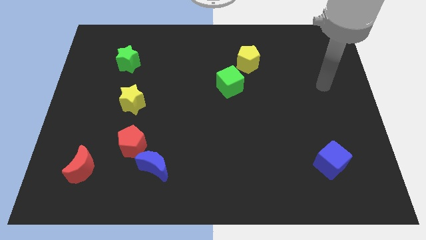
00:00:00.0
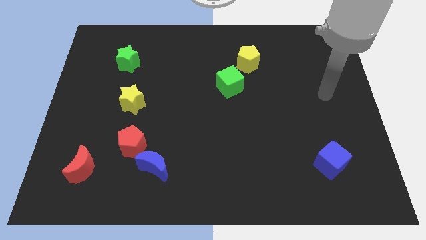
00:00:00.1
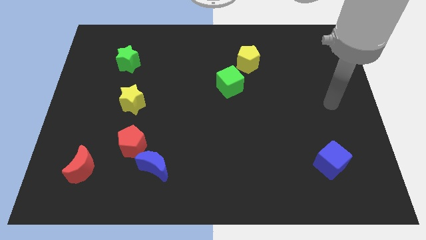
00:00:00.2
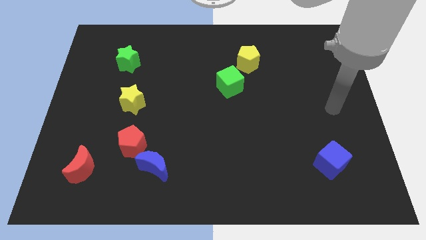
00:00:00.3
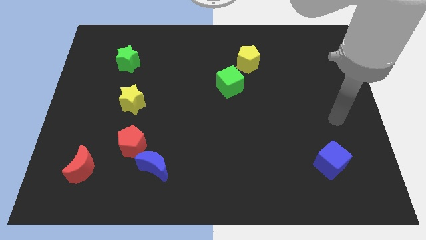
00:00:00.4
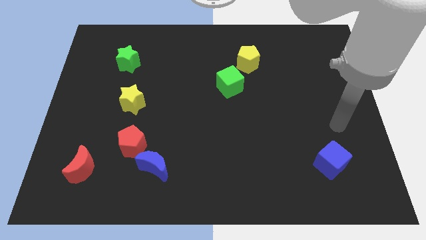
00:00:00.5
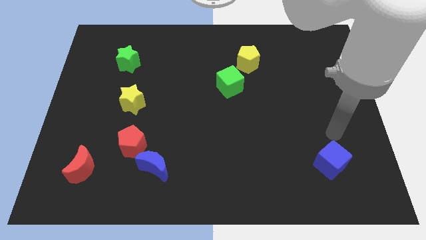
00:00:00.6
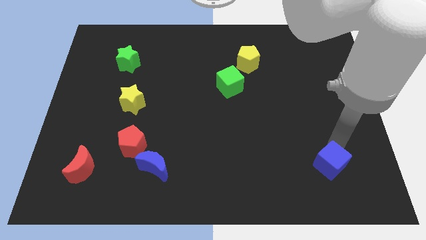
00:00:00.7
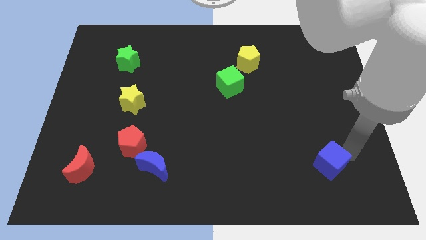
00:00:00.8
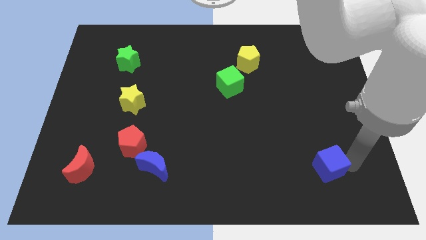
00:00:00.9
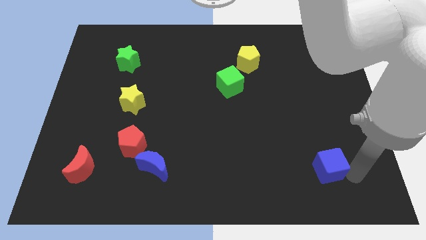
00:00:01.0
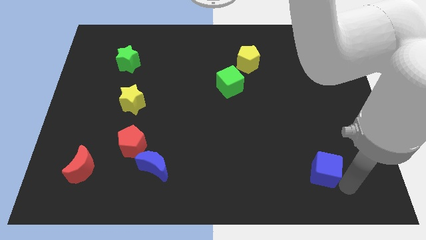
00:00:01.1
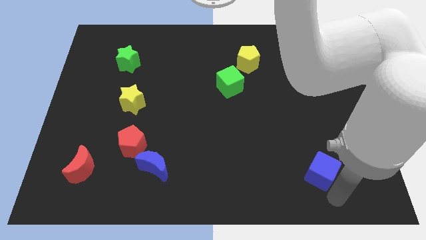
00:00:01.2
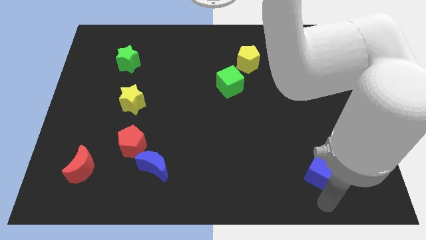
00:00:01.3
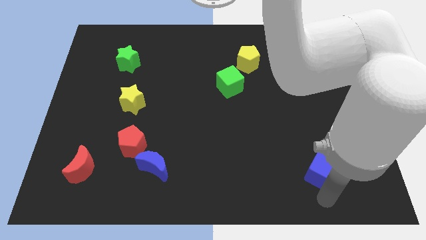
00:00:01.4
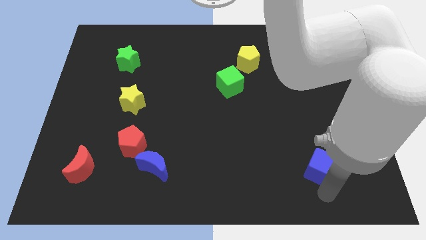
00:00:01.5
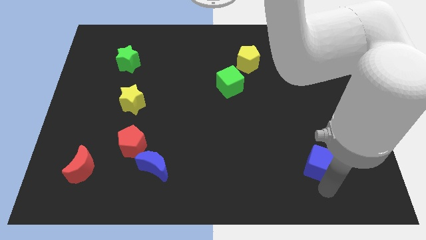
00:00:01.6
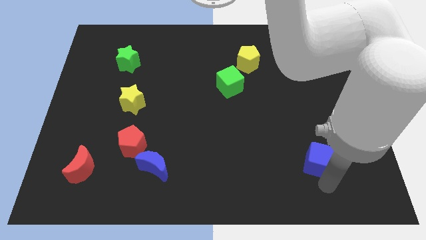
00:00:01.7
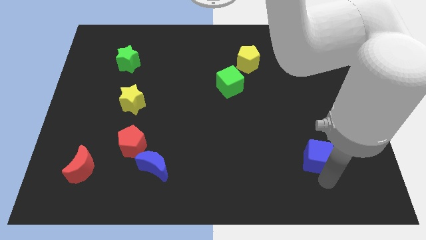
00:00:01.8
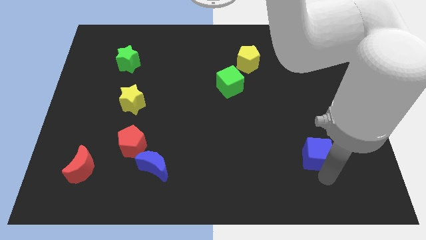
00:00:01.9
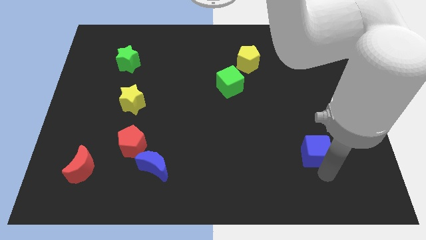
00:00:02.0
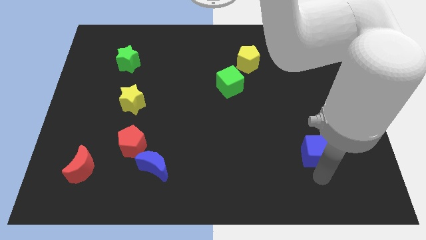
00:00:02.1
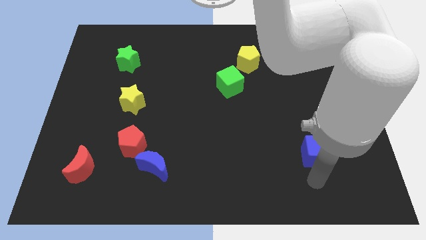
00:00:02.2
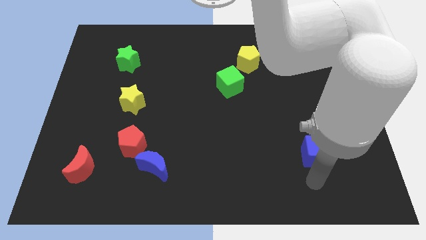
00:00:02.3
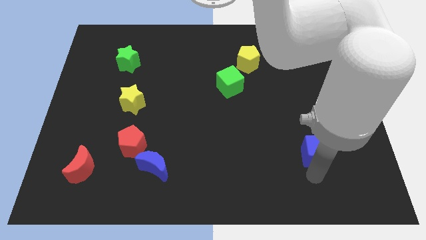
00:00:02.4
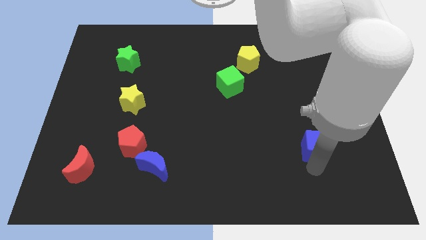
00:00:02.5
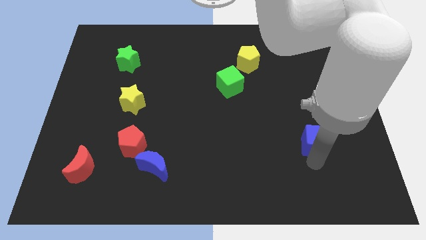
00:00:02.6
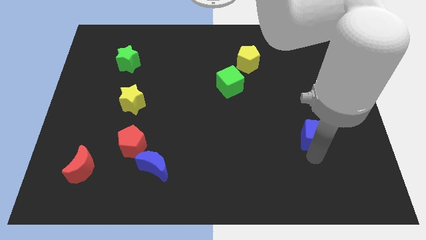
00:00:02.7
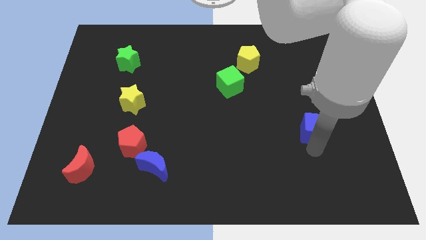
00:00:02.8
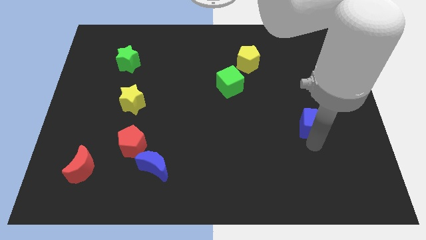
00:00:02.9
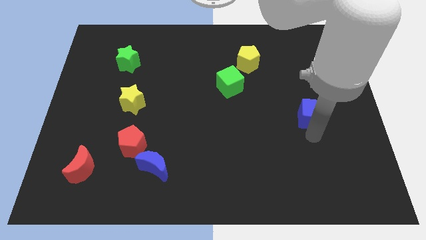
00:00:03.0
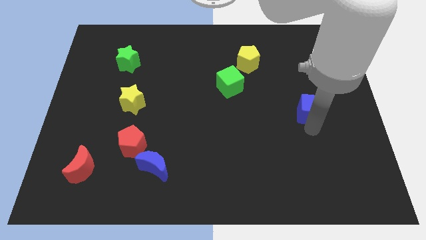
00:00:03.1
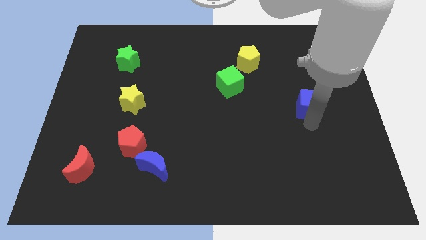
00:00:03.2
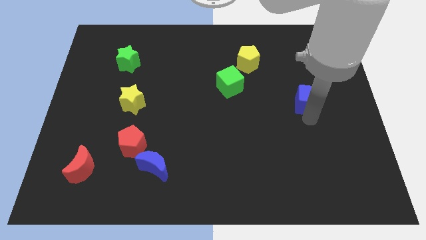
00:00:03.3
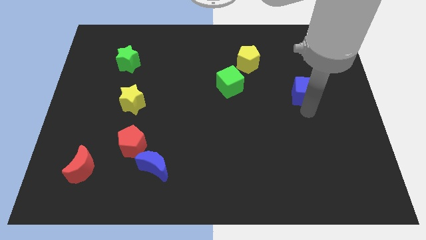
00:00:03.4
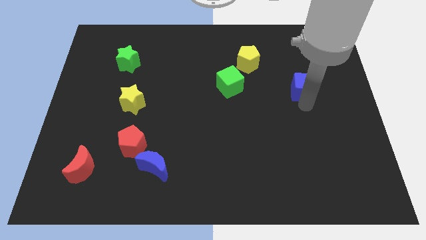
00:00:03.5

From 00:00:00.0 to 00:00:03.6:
move the blue cube upwards

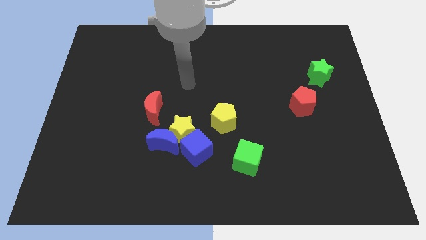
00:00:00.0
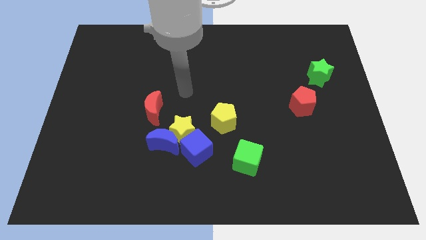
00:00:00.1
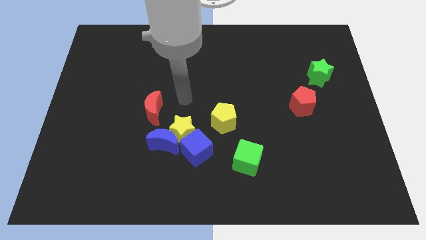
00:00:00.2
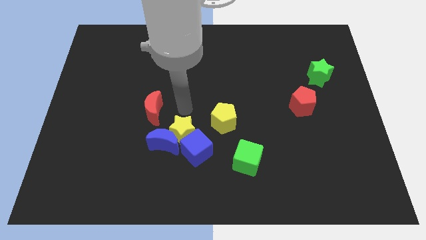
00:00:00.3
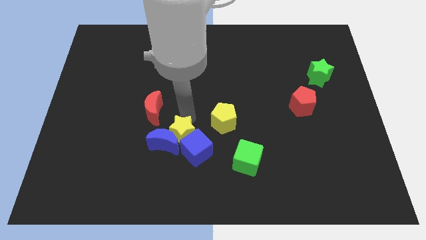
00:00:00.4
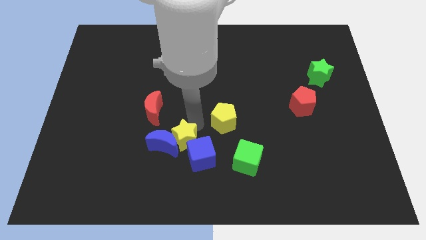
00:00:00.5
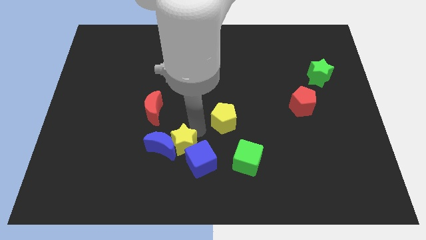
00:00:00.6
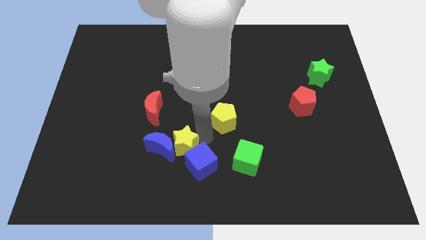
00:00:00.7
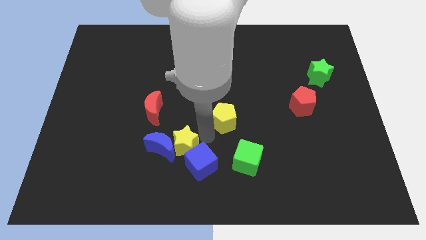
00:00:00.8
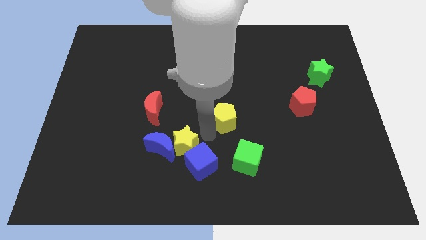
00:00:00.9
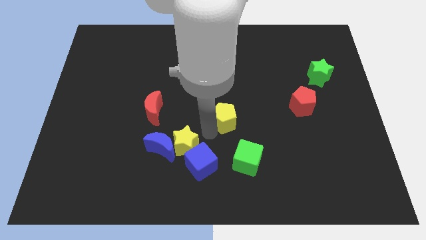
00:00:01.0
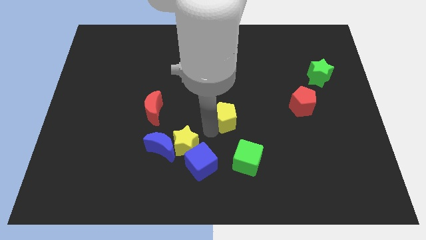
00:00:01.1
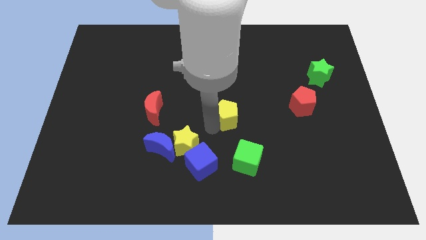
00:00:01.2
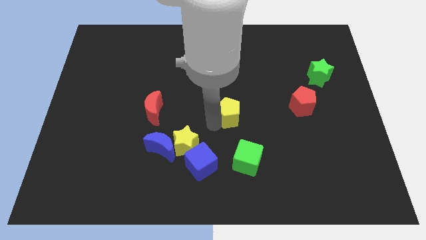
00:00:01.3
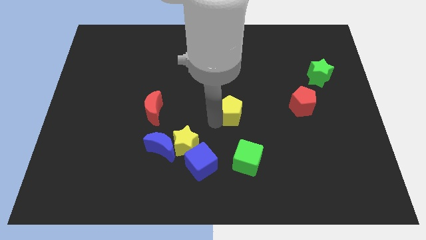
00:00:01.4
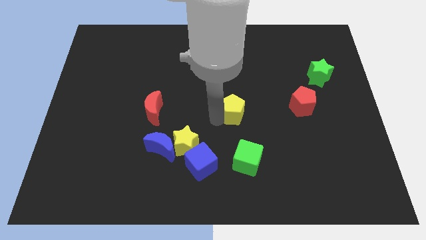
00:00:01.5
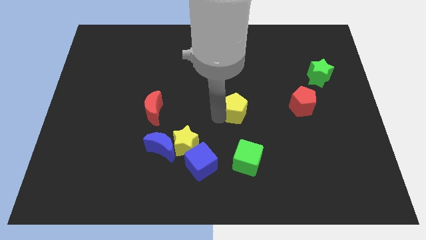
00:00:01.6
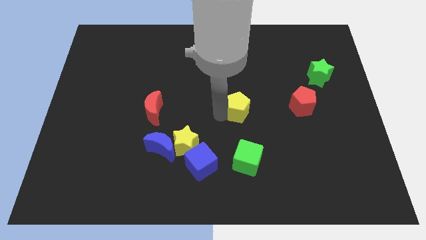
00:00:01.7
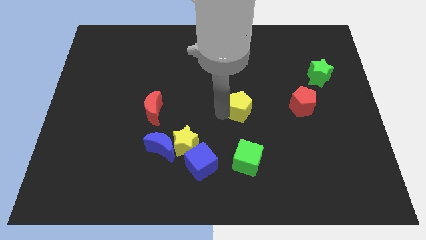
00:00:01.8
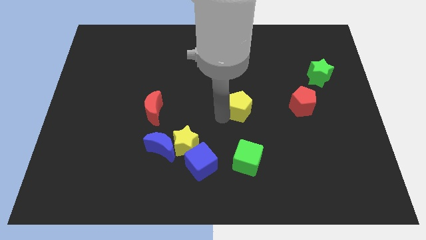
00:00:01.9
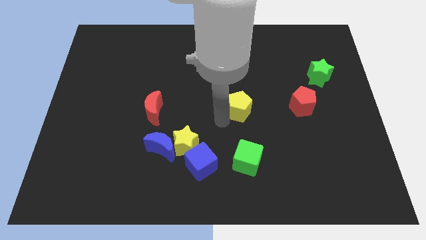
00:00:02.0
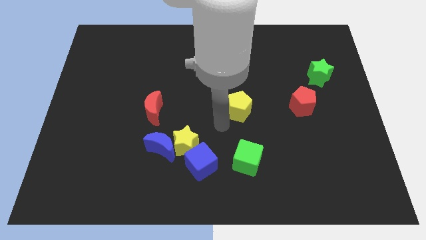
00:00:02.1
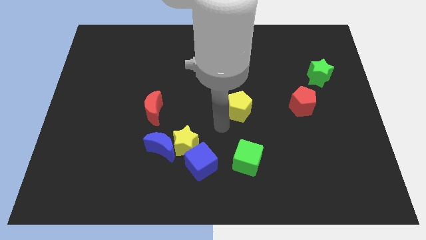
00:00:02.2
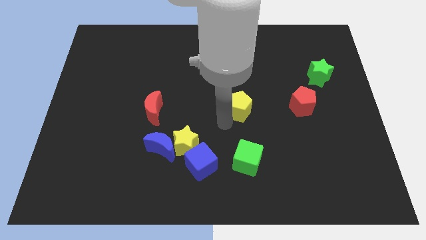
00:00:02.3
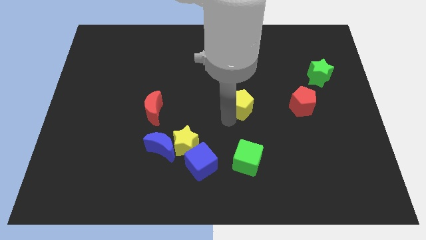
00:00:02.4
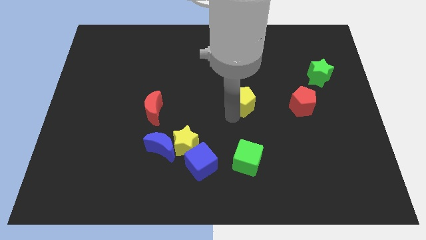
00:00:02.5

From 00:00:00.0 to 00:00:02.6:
slide the yellow pentagon a bit upwards and to the right

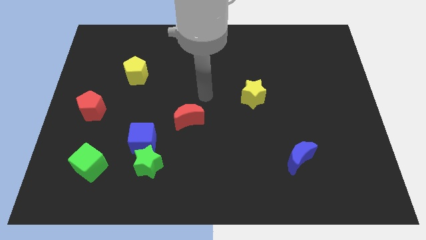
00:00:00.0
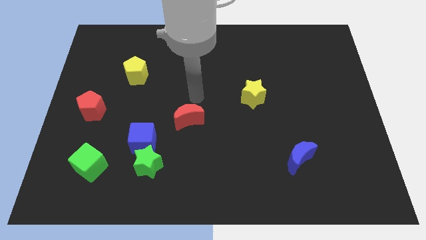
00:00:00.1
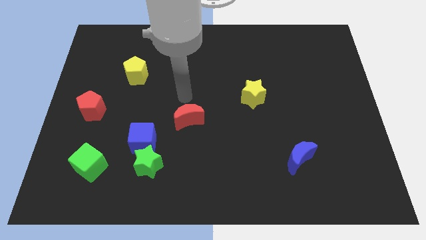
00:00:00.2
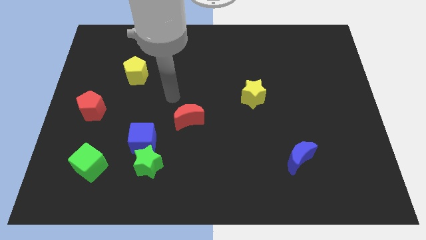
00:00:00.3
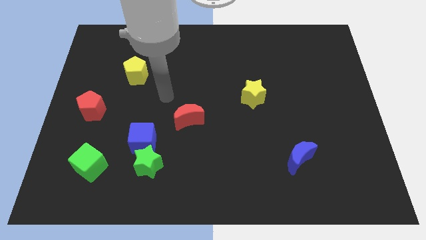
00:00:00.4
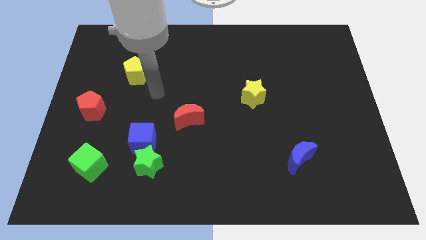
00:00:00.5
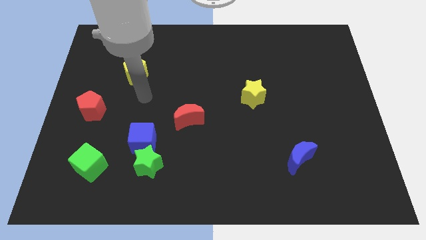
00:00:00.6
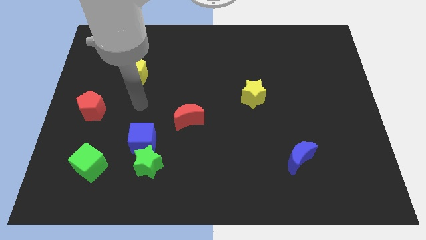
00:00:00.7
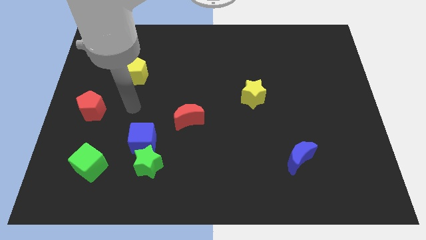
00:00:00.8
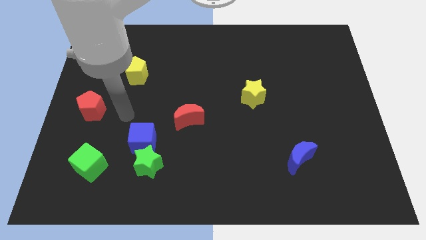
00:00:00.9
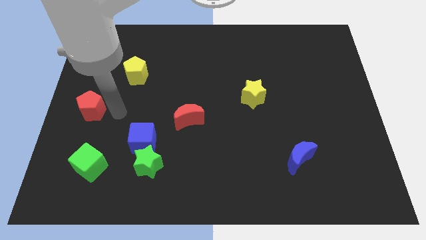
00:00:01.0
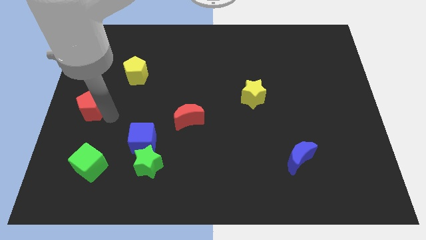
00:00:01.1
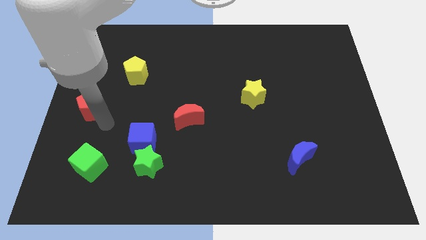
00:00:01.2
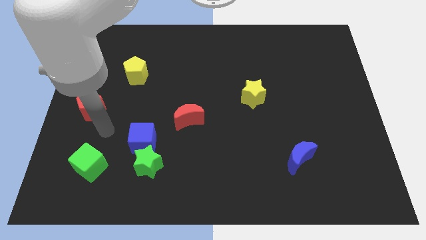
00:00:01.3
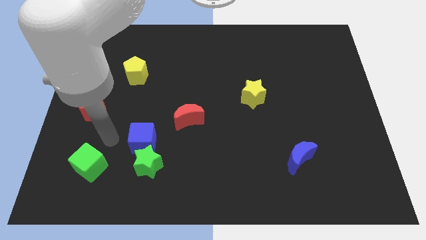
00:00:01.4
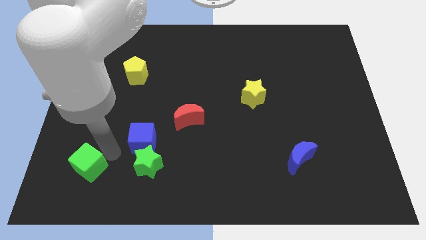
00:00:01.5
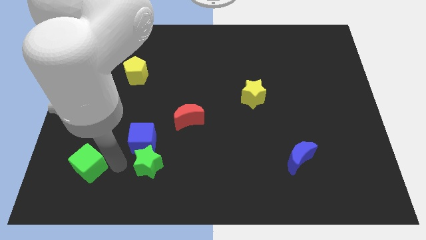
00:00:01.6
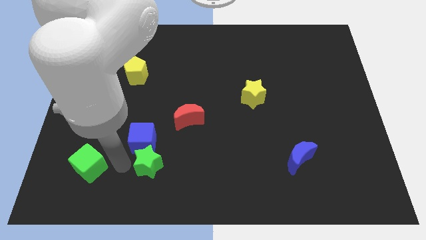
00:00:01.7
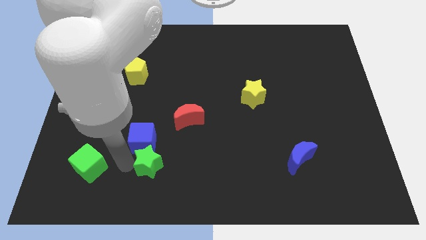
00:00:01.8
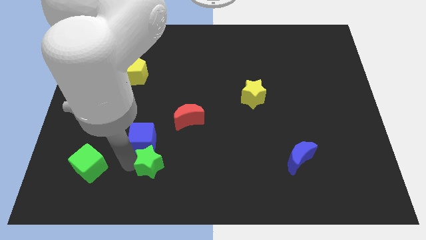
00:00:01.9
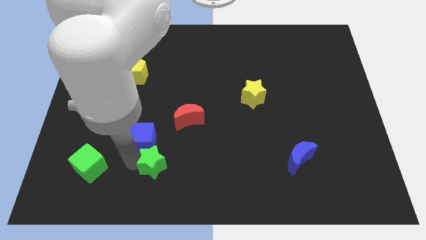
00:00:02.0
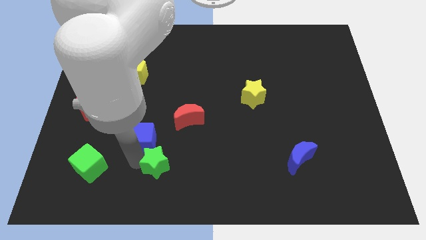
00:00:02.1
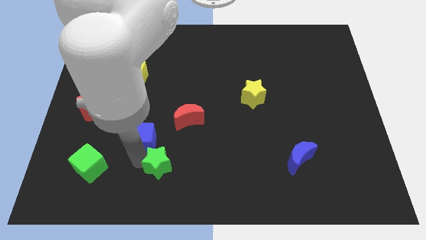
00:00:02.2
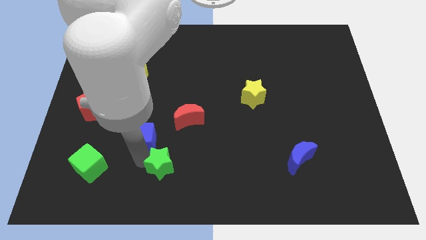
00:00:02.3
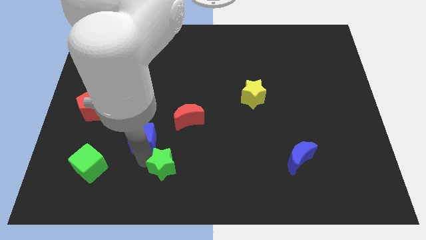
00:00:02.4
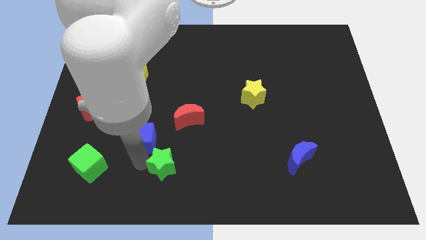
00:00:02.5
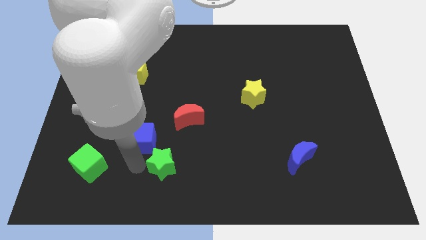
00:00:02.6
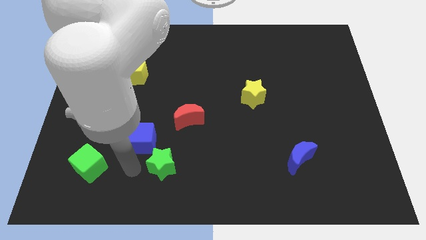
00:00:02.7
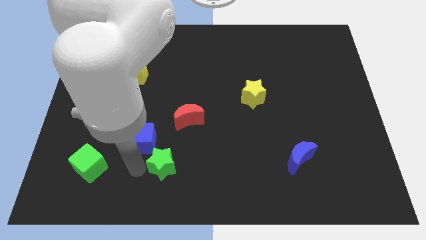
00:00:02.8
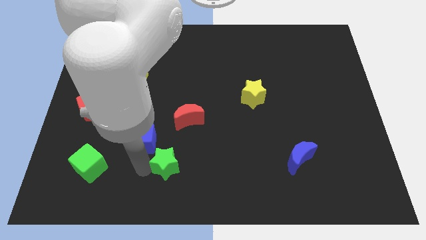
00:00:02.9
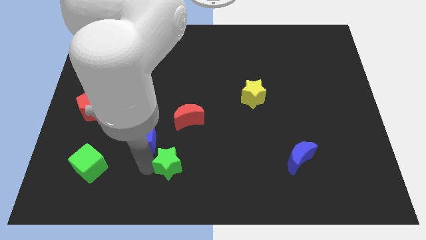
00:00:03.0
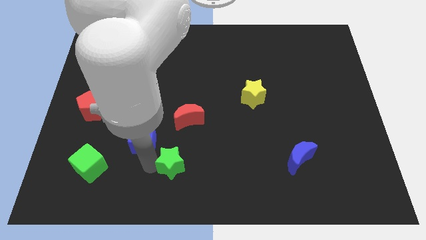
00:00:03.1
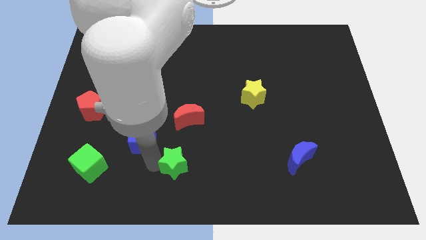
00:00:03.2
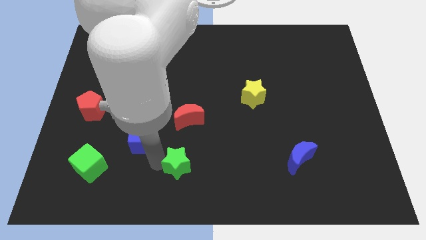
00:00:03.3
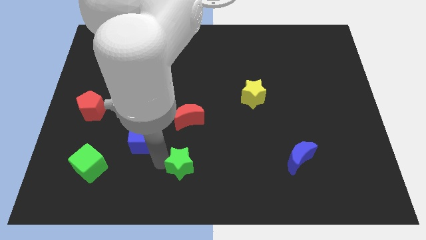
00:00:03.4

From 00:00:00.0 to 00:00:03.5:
slightly move the green star right
